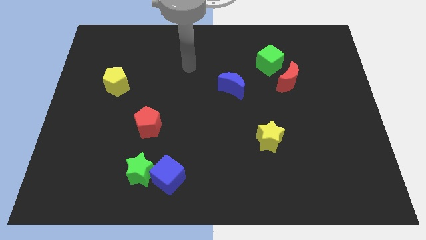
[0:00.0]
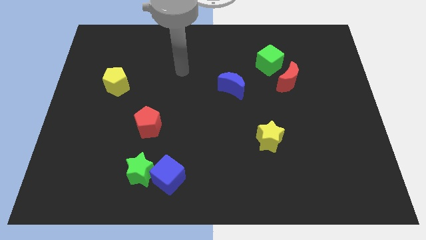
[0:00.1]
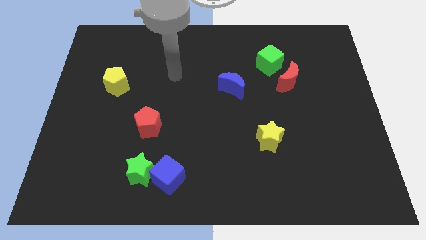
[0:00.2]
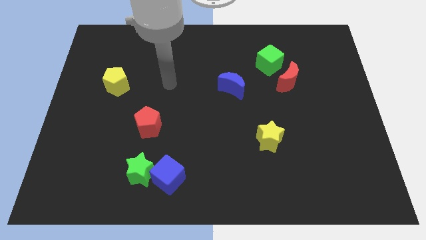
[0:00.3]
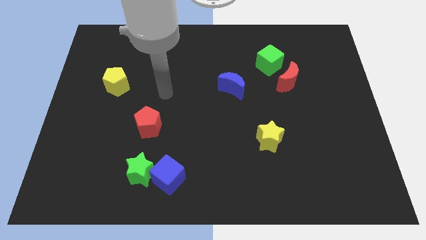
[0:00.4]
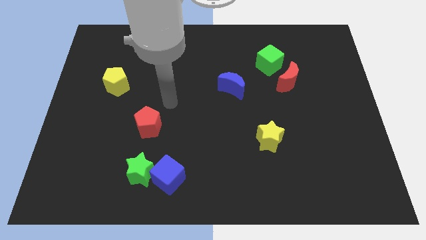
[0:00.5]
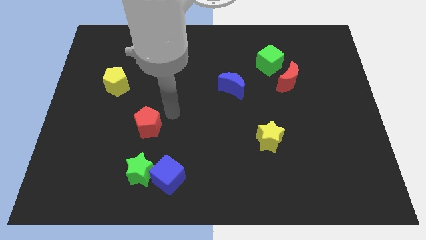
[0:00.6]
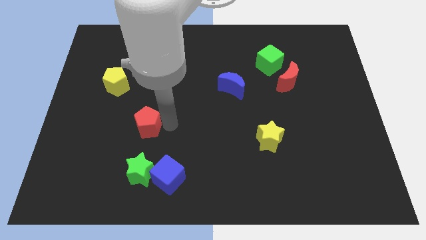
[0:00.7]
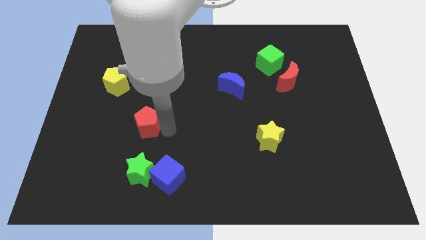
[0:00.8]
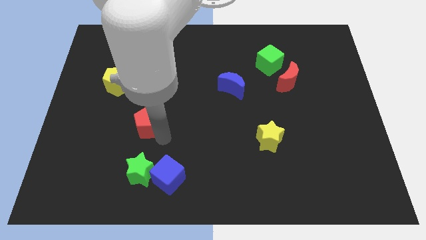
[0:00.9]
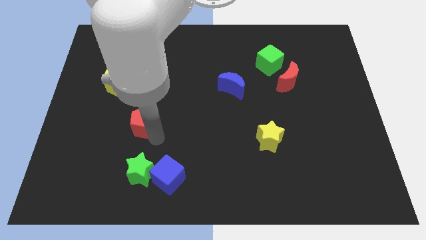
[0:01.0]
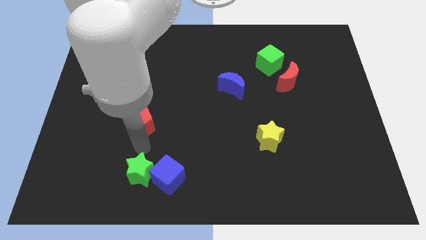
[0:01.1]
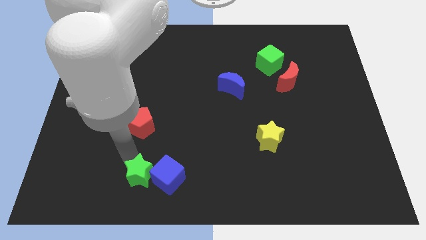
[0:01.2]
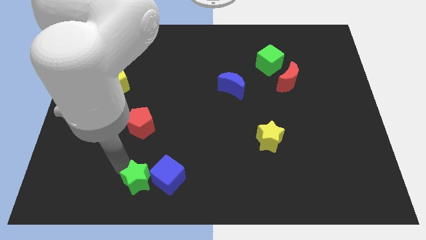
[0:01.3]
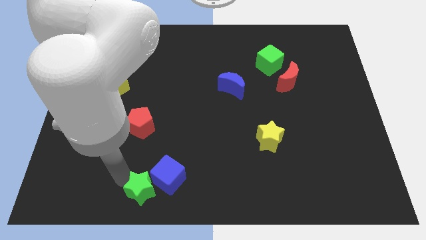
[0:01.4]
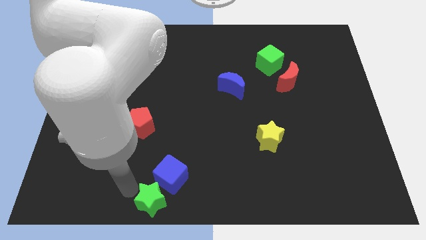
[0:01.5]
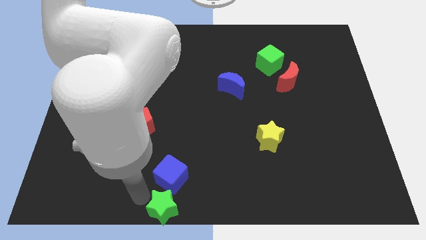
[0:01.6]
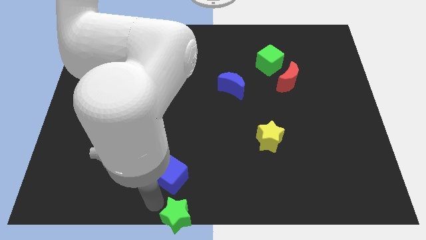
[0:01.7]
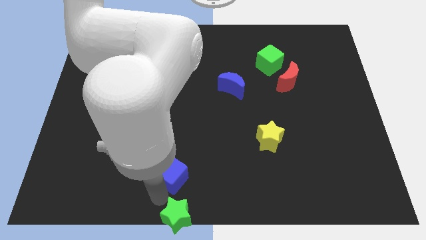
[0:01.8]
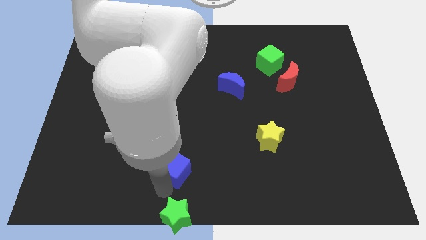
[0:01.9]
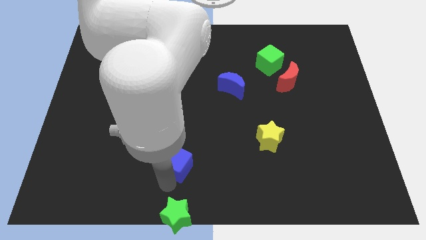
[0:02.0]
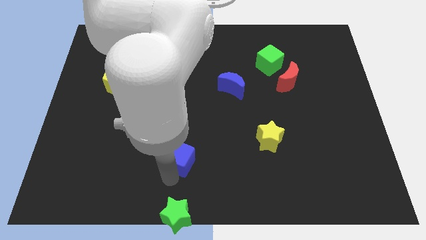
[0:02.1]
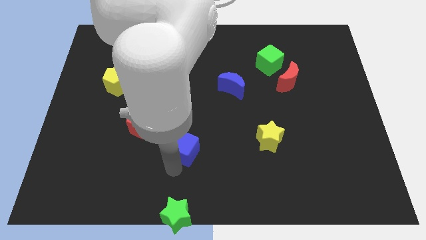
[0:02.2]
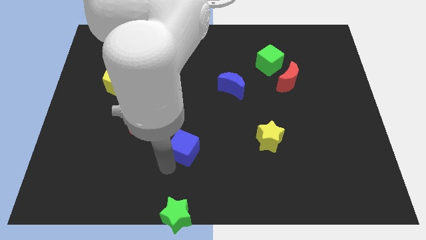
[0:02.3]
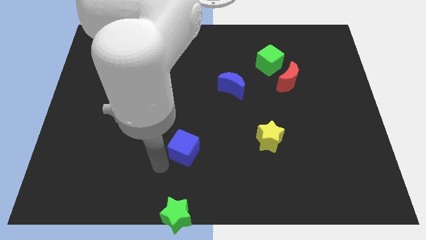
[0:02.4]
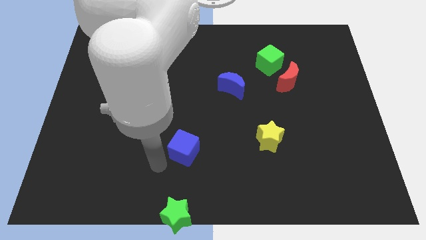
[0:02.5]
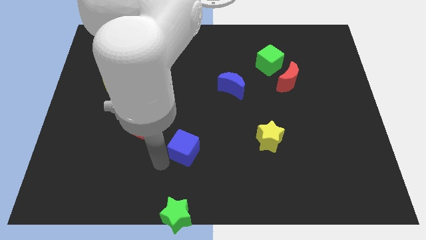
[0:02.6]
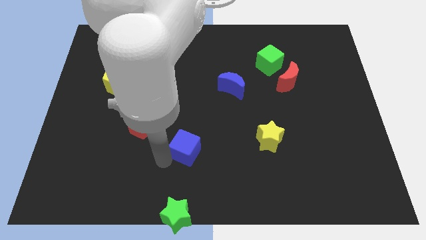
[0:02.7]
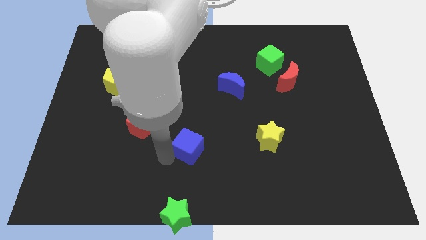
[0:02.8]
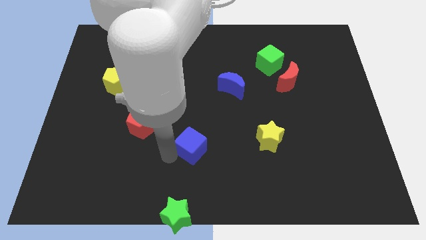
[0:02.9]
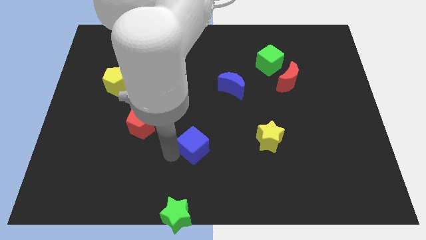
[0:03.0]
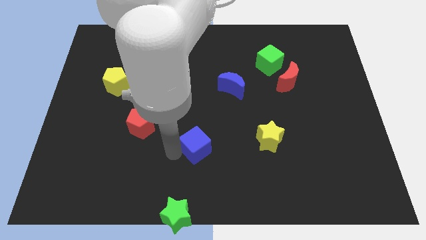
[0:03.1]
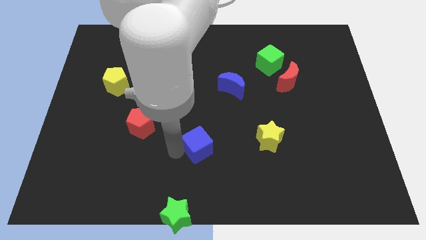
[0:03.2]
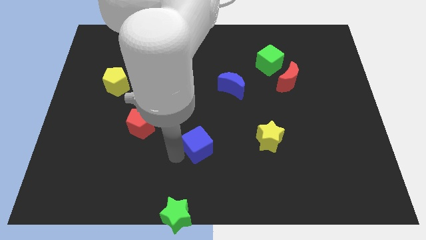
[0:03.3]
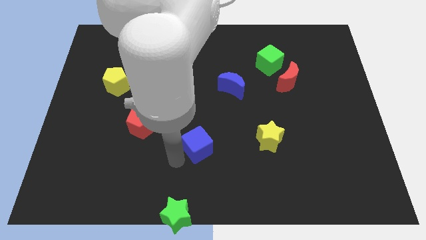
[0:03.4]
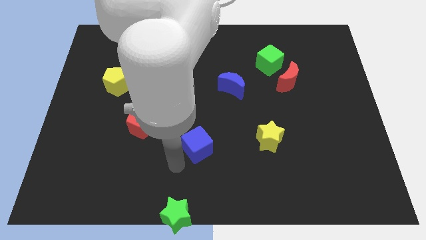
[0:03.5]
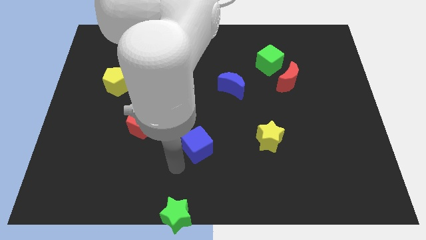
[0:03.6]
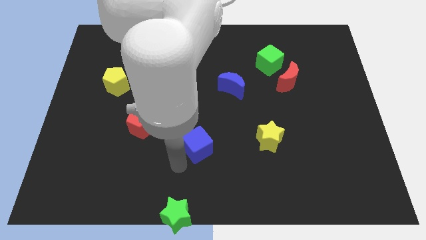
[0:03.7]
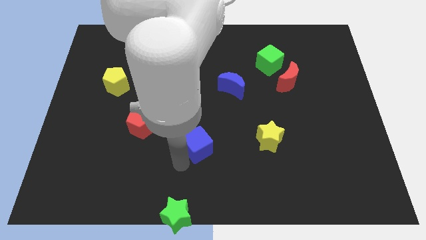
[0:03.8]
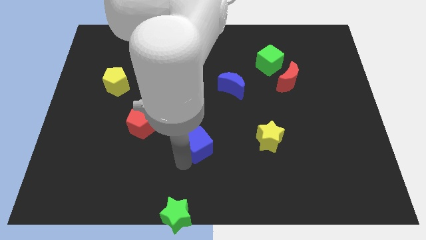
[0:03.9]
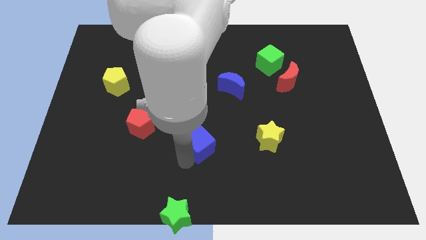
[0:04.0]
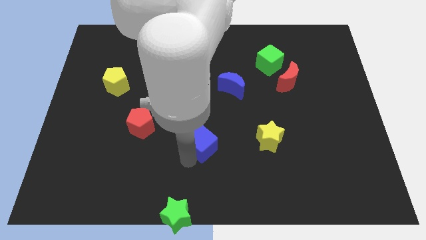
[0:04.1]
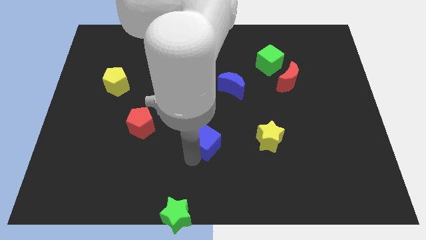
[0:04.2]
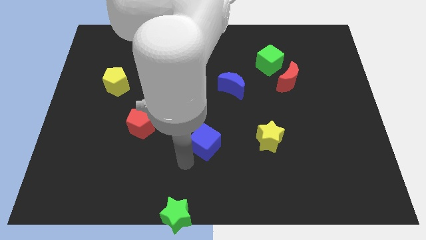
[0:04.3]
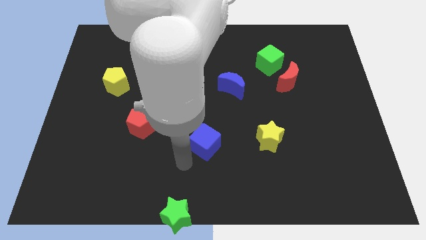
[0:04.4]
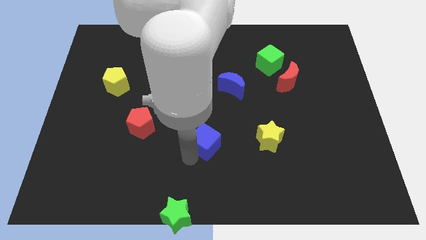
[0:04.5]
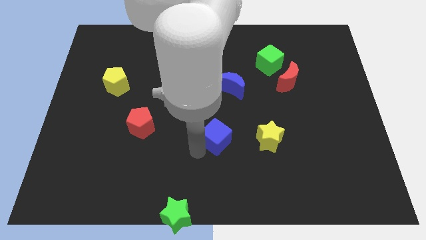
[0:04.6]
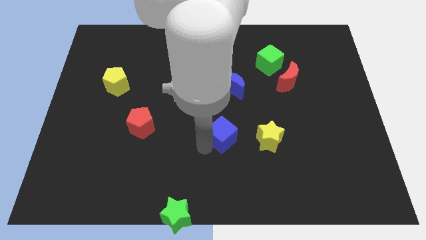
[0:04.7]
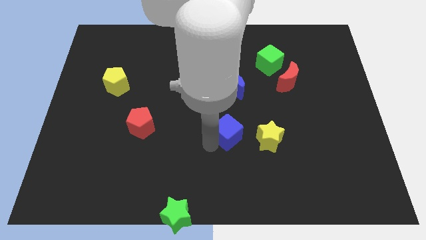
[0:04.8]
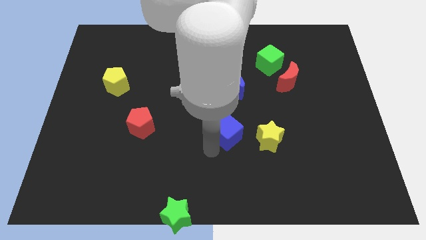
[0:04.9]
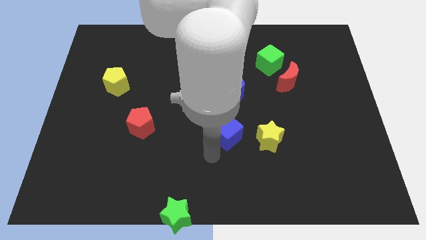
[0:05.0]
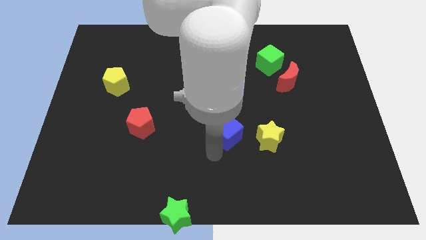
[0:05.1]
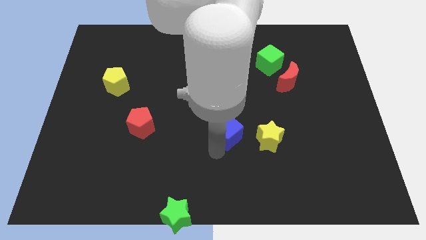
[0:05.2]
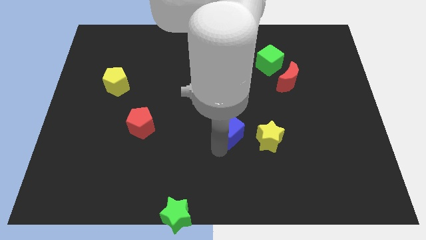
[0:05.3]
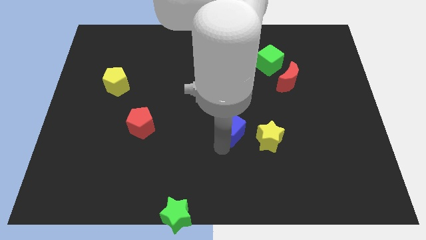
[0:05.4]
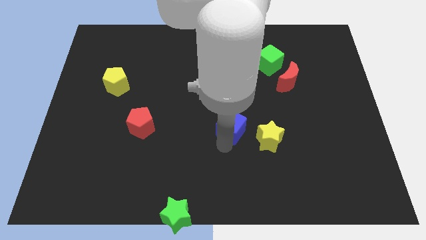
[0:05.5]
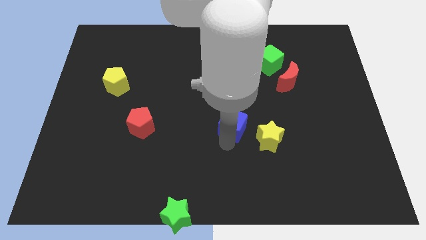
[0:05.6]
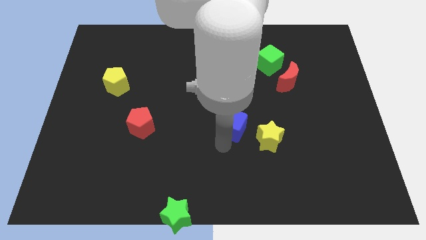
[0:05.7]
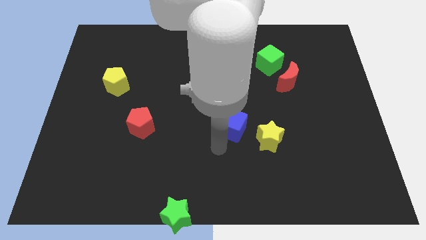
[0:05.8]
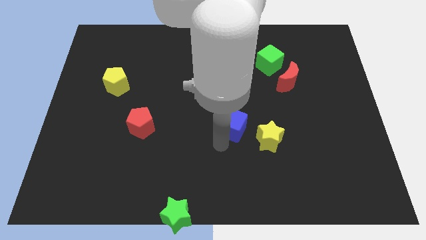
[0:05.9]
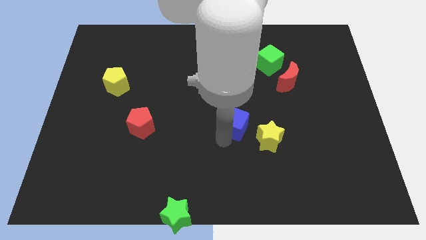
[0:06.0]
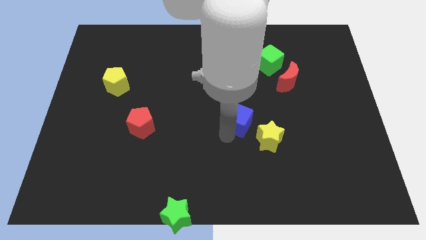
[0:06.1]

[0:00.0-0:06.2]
push the blue cube upwards and right diagonally

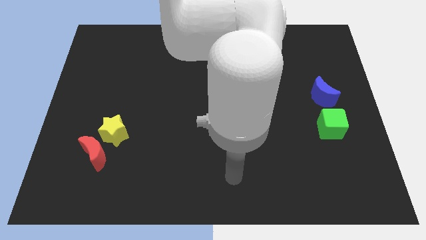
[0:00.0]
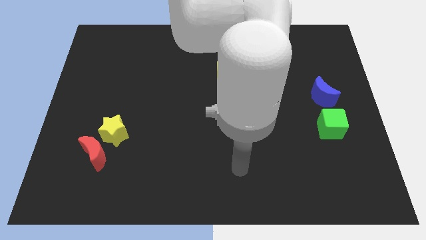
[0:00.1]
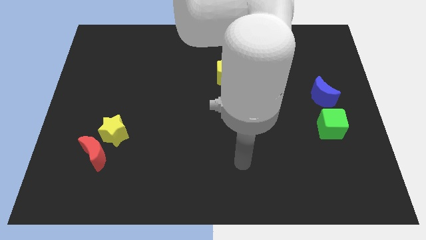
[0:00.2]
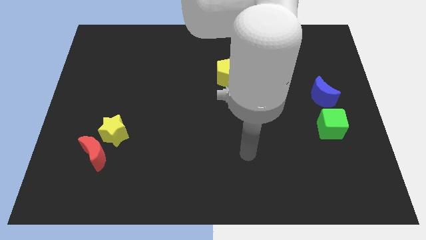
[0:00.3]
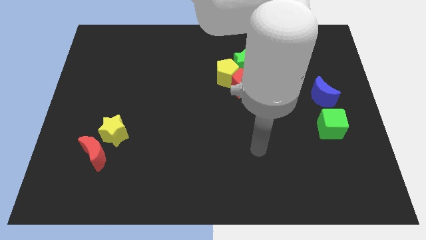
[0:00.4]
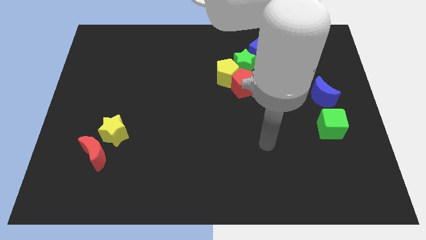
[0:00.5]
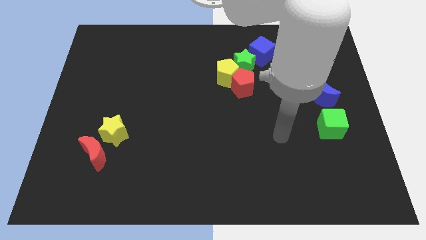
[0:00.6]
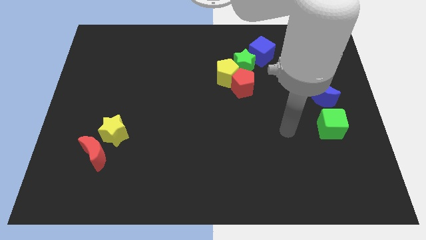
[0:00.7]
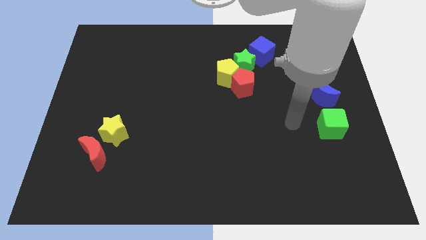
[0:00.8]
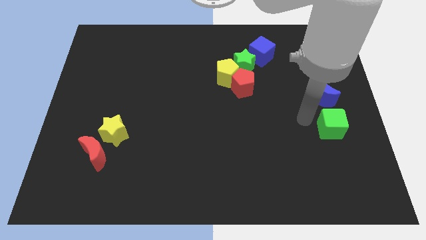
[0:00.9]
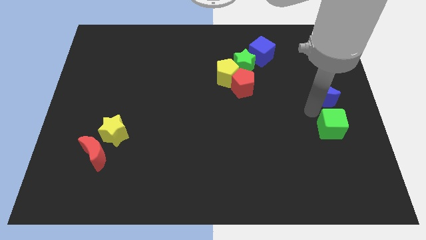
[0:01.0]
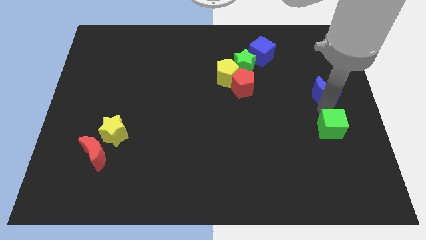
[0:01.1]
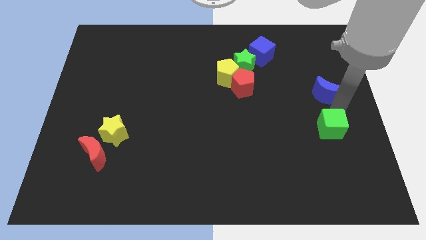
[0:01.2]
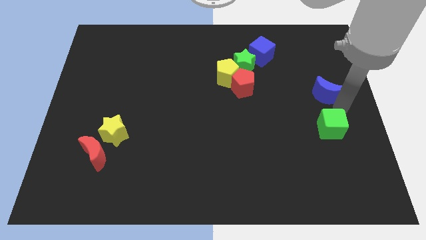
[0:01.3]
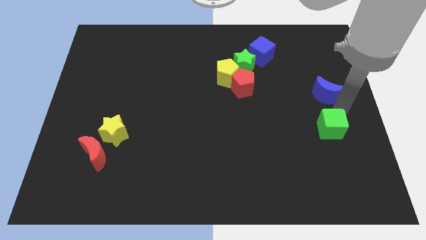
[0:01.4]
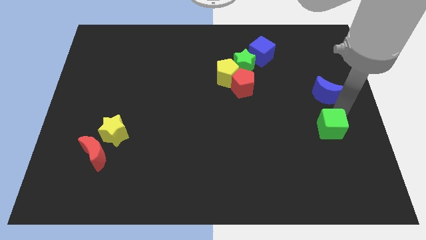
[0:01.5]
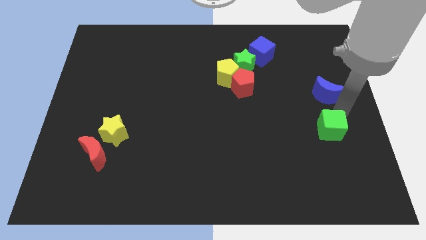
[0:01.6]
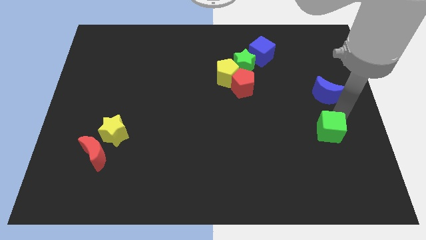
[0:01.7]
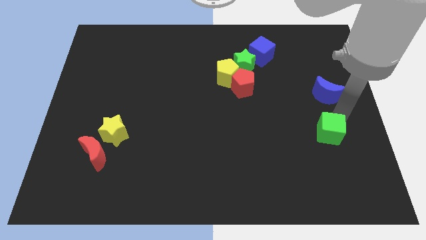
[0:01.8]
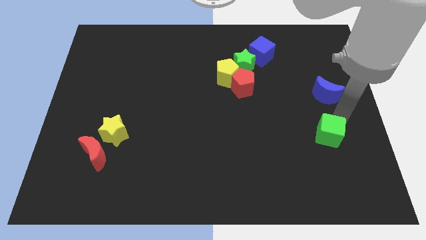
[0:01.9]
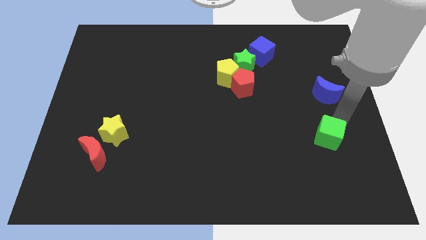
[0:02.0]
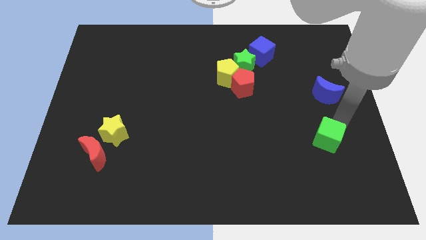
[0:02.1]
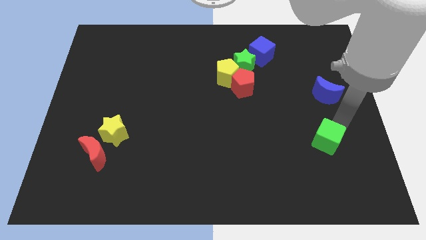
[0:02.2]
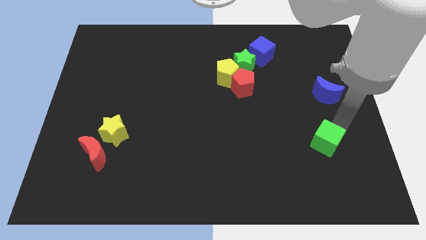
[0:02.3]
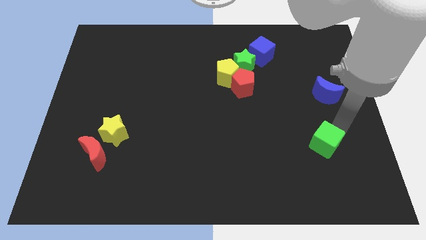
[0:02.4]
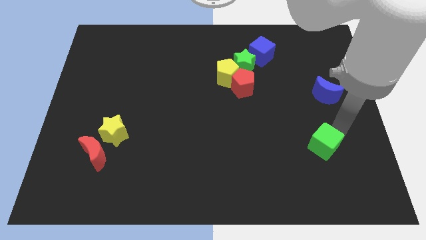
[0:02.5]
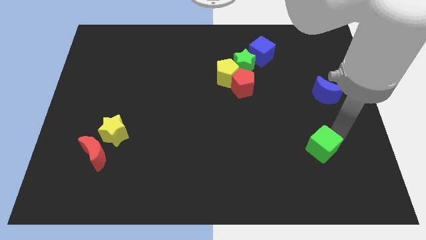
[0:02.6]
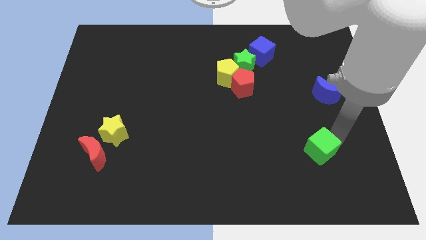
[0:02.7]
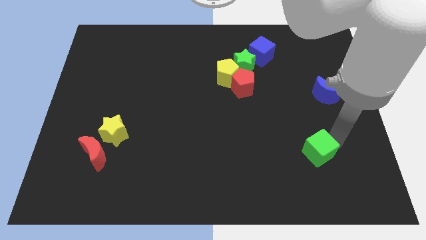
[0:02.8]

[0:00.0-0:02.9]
move the green cube a little bit down and then to the left
